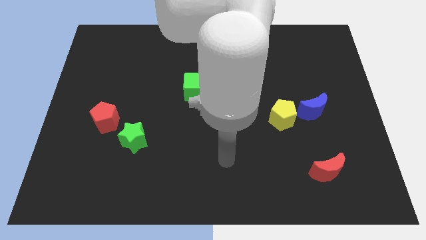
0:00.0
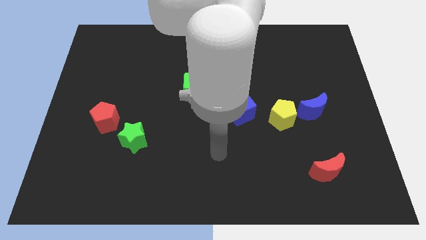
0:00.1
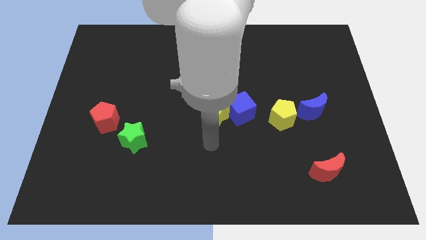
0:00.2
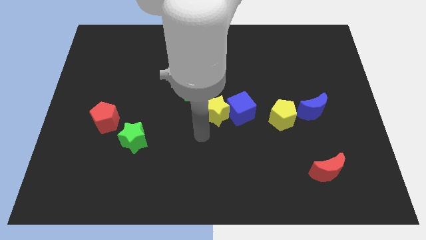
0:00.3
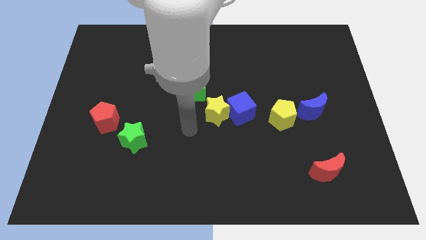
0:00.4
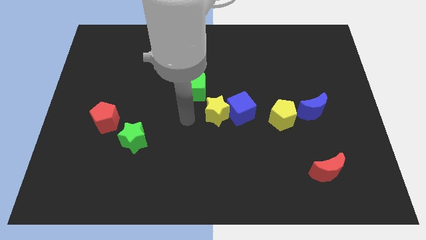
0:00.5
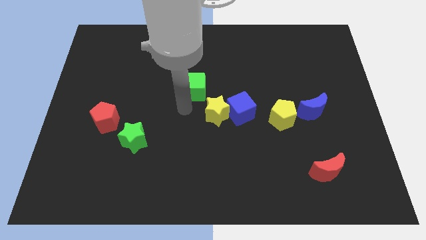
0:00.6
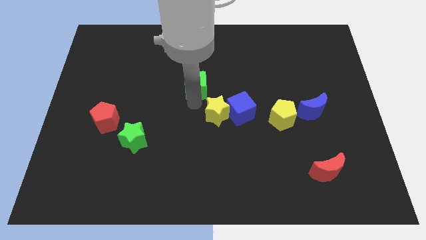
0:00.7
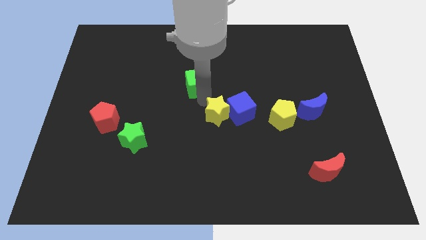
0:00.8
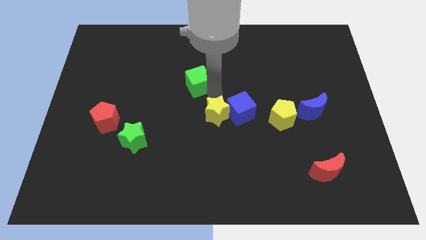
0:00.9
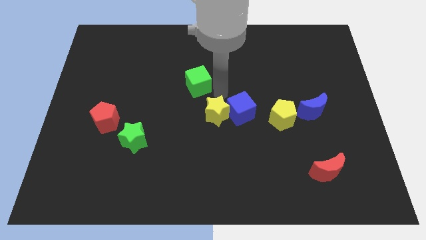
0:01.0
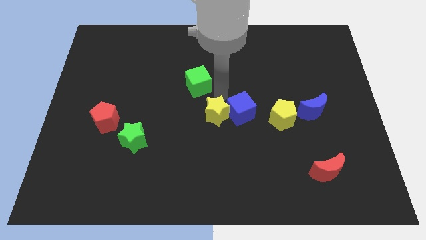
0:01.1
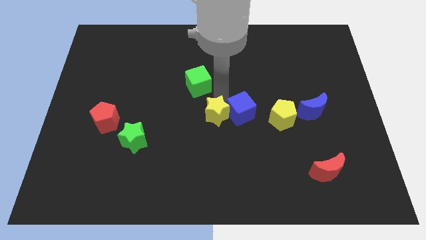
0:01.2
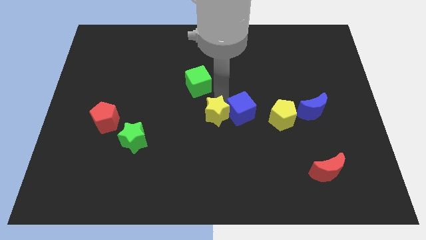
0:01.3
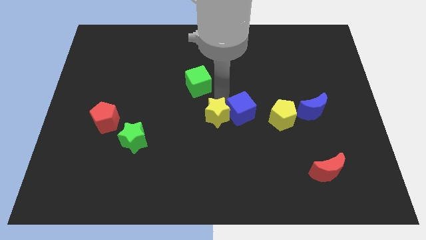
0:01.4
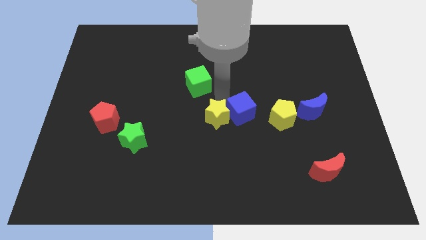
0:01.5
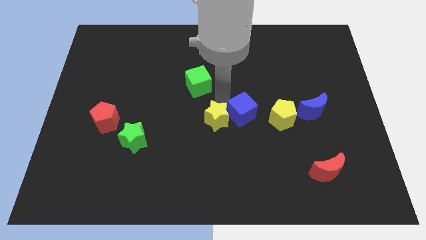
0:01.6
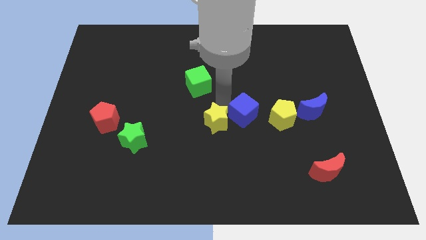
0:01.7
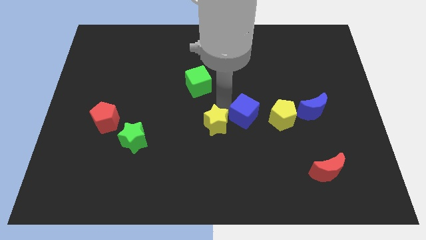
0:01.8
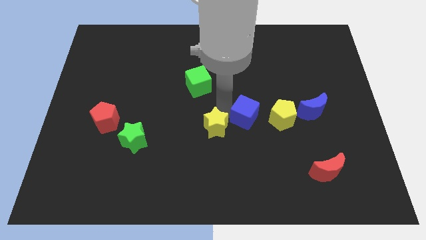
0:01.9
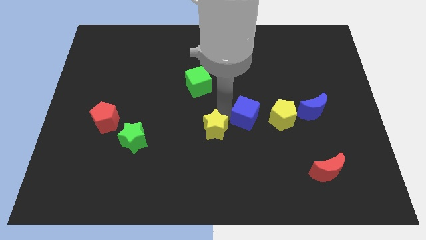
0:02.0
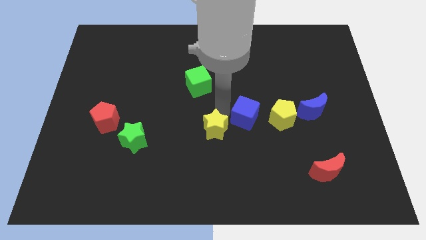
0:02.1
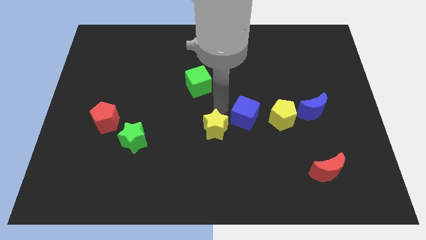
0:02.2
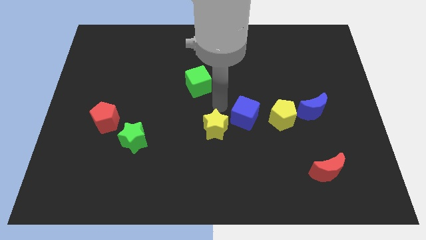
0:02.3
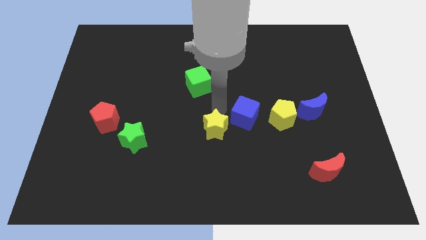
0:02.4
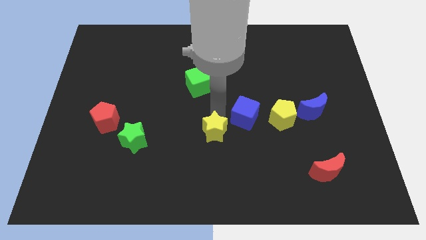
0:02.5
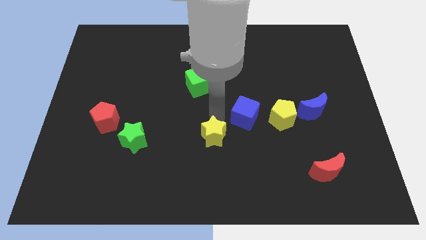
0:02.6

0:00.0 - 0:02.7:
pull the yellow star apart from the blue cube and green cube

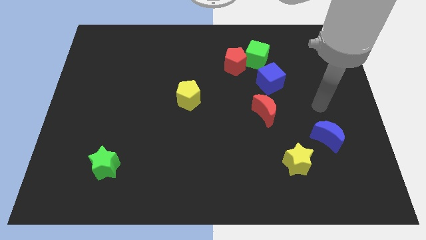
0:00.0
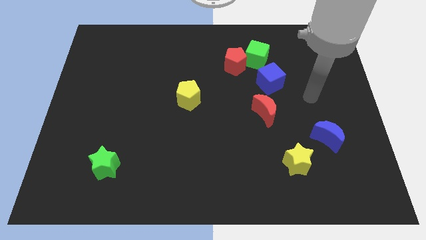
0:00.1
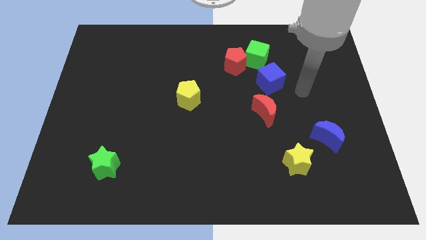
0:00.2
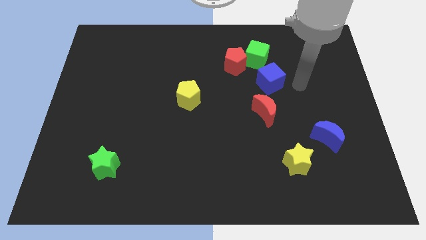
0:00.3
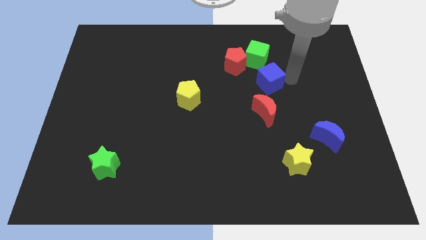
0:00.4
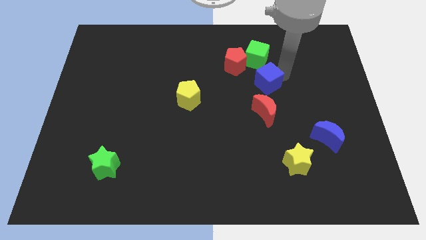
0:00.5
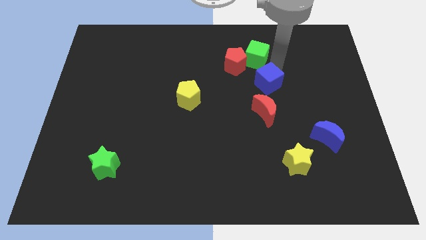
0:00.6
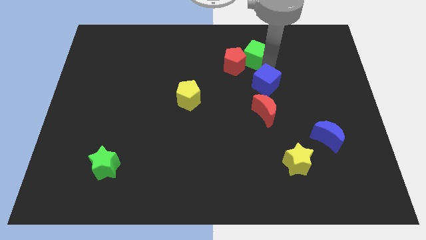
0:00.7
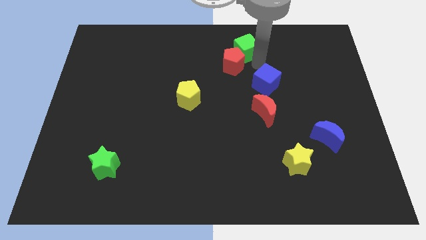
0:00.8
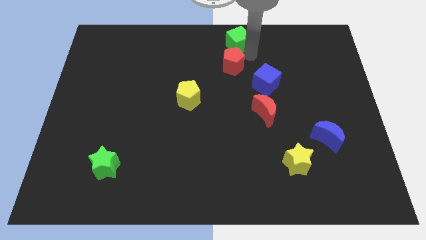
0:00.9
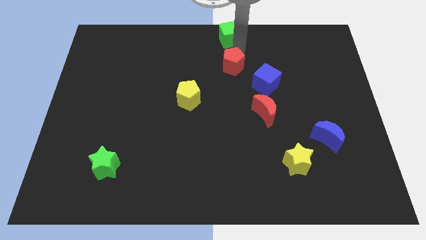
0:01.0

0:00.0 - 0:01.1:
separate the red pentagon from the green cube

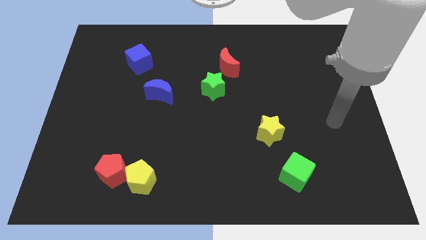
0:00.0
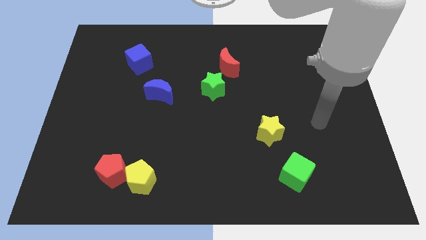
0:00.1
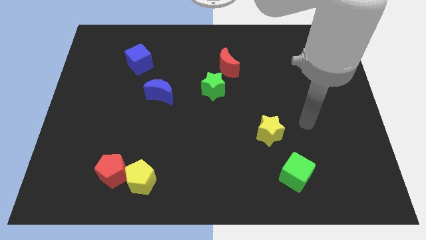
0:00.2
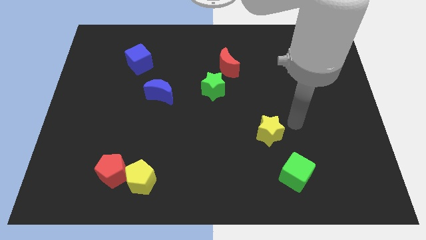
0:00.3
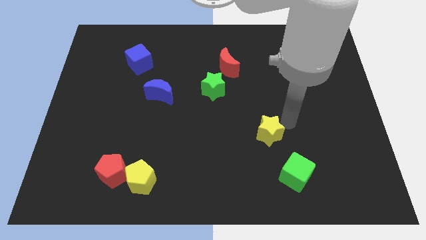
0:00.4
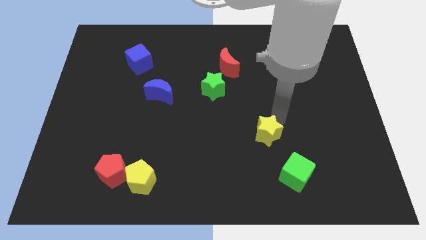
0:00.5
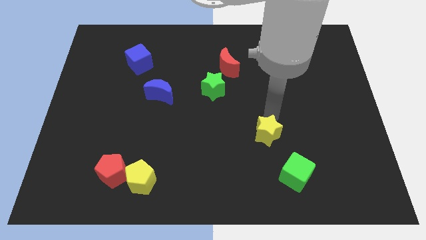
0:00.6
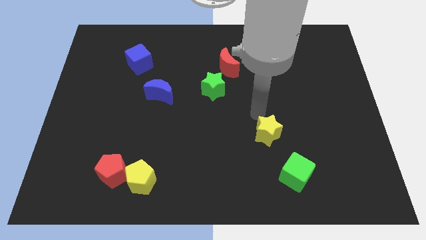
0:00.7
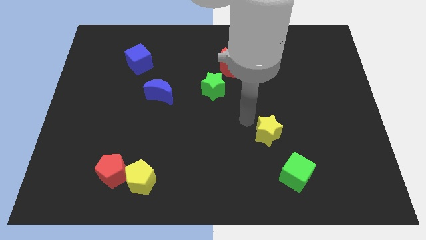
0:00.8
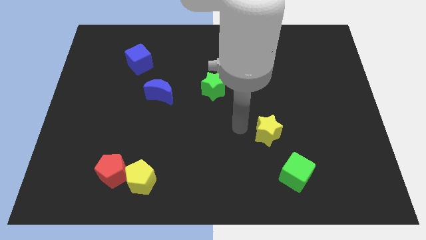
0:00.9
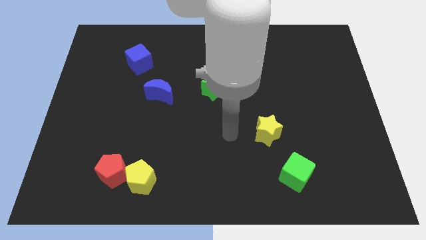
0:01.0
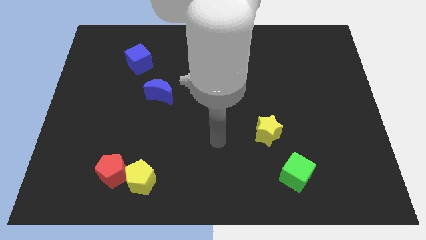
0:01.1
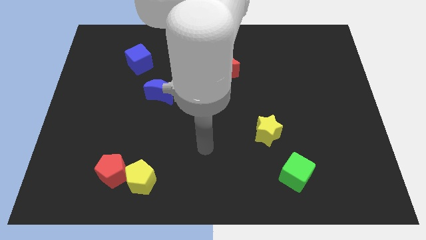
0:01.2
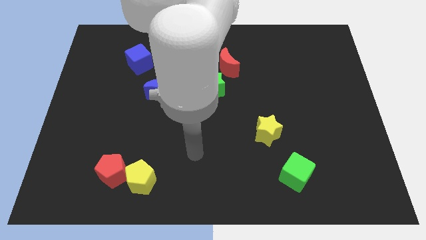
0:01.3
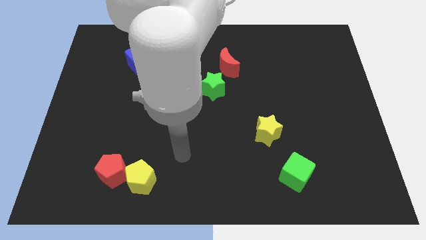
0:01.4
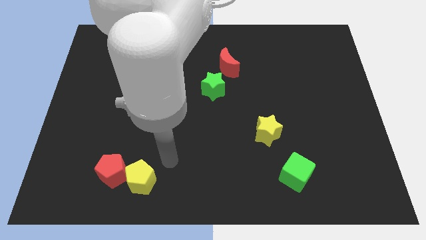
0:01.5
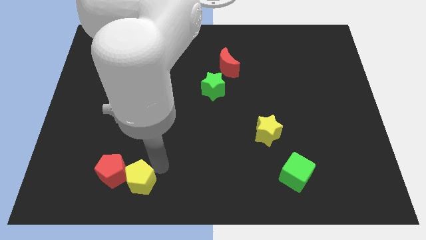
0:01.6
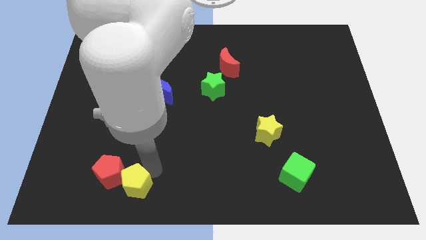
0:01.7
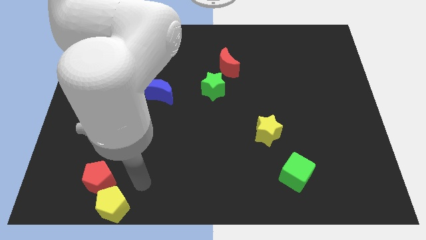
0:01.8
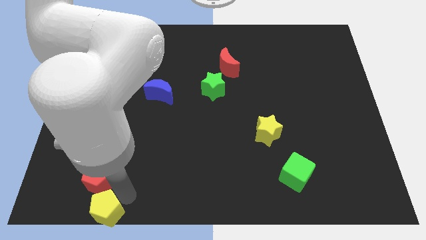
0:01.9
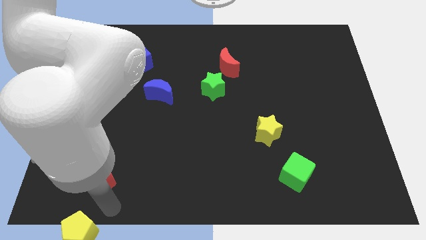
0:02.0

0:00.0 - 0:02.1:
pull the red pentagon apart from the yellow pentagon

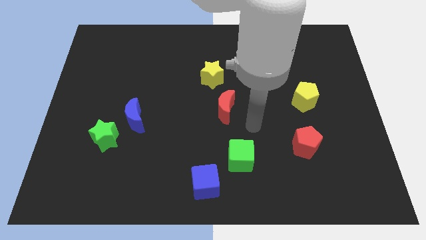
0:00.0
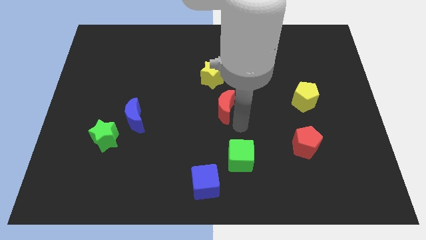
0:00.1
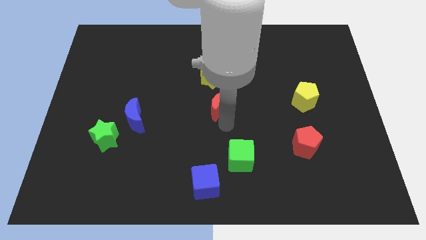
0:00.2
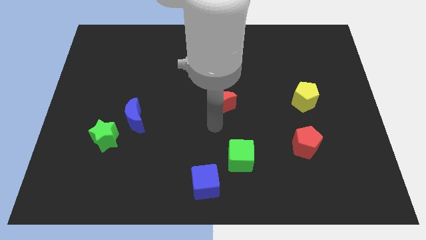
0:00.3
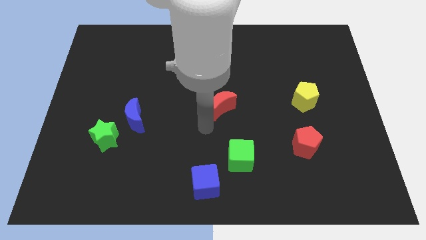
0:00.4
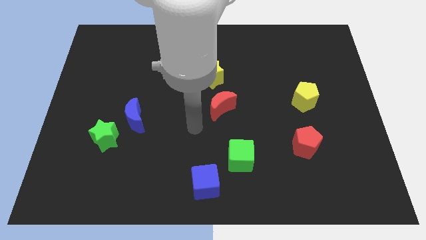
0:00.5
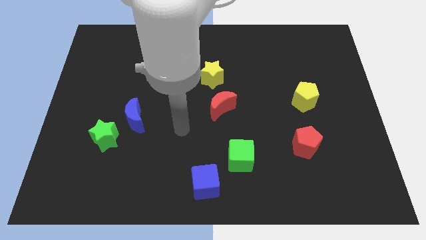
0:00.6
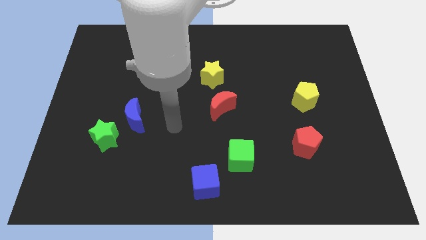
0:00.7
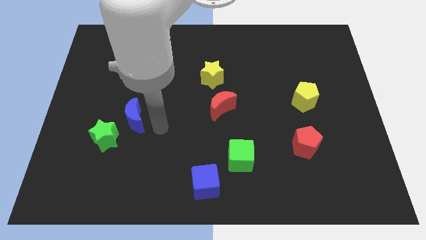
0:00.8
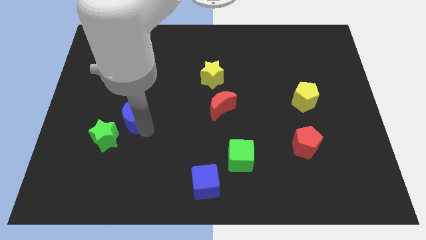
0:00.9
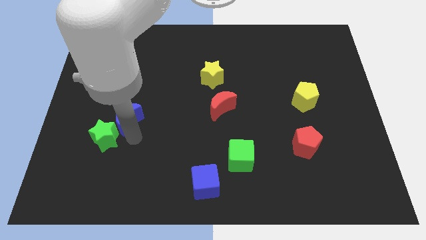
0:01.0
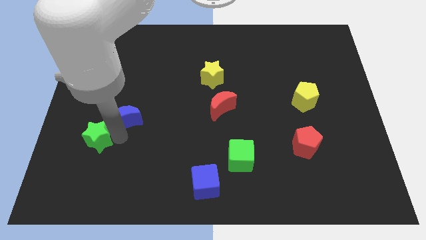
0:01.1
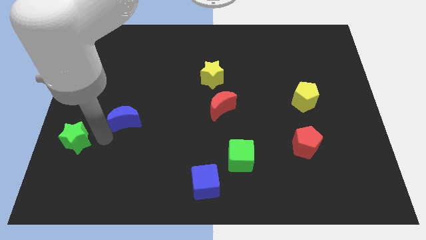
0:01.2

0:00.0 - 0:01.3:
separate the blue moon from the green star

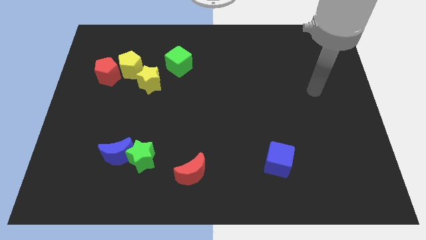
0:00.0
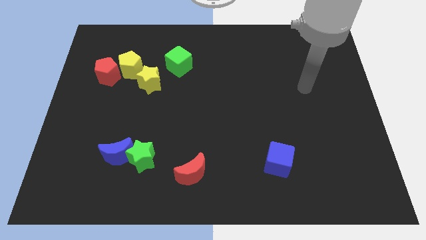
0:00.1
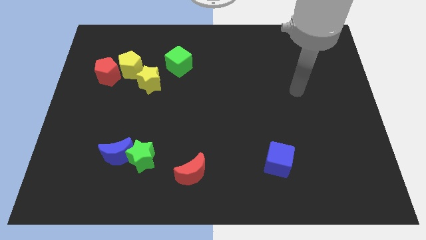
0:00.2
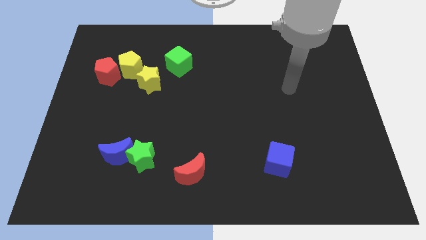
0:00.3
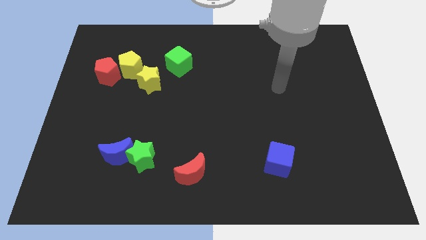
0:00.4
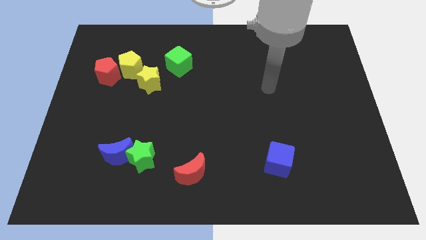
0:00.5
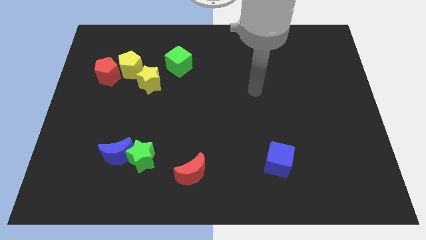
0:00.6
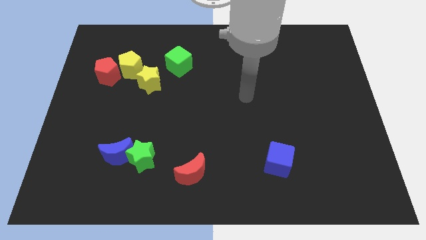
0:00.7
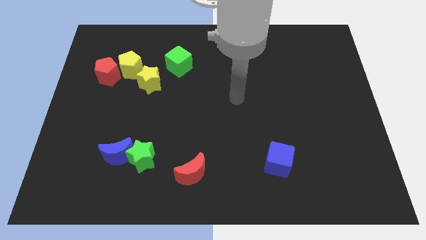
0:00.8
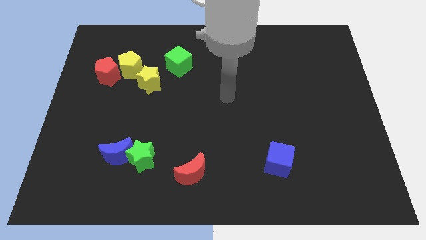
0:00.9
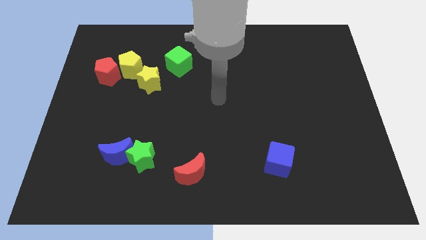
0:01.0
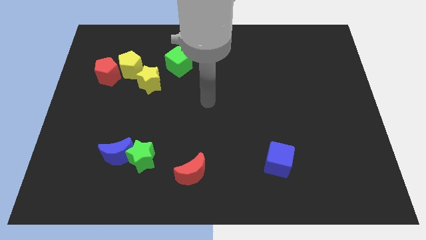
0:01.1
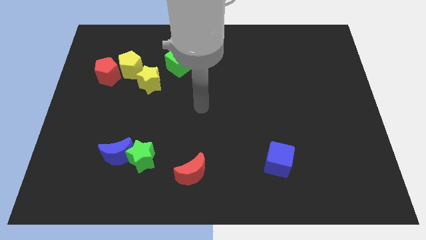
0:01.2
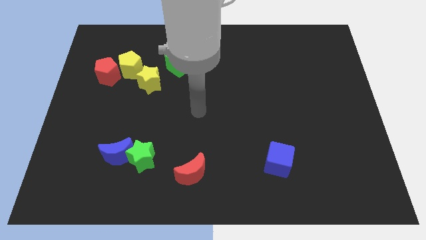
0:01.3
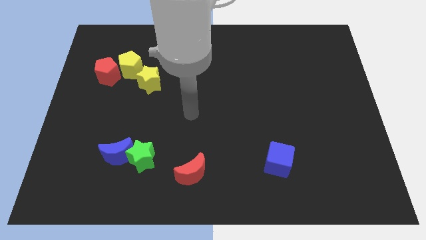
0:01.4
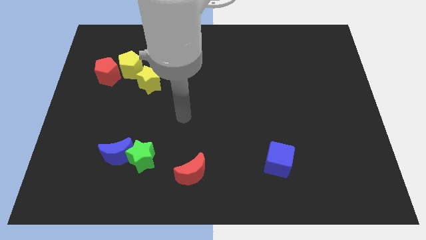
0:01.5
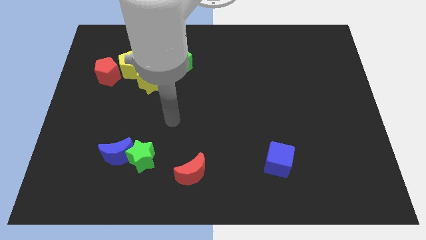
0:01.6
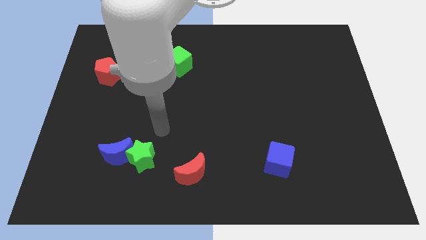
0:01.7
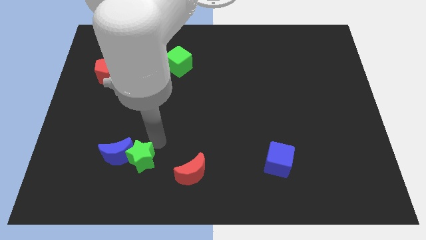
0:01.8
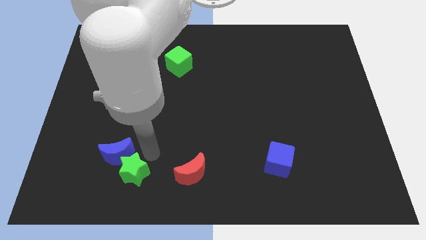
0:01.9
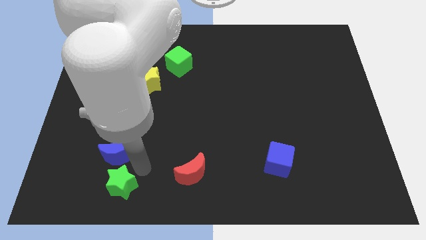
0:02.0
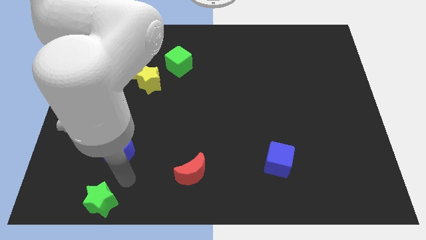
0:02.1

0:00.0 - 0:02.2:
pull the blue moon apart from the green star
